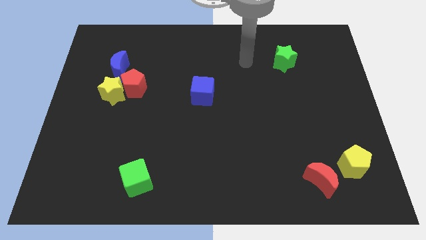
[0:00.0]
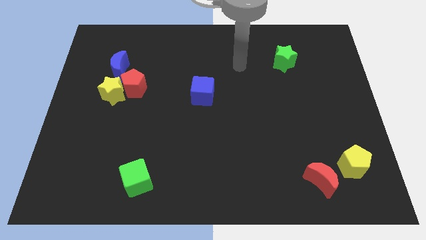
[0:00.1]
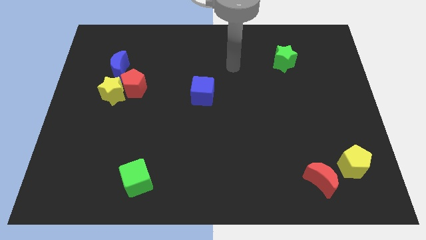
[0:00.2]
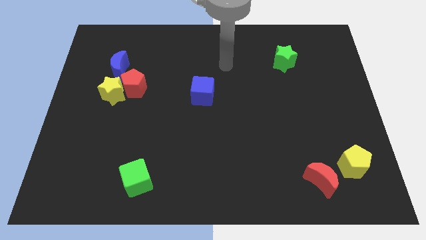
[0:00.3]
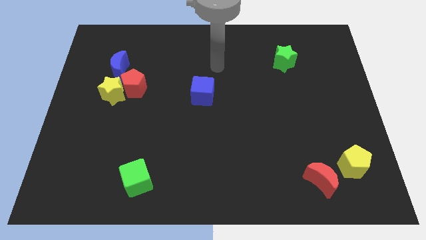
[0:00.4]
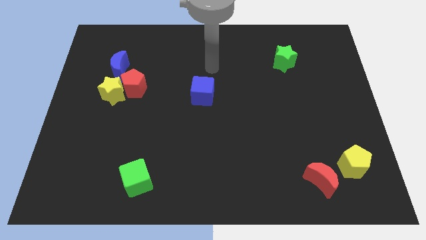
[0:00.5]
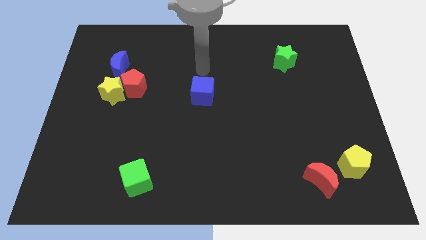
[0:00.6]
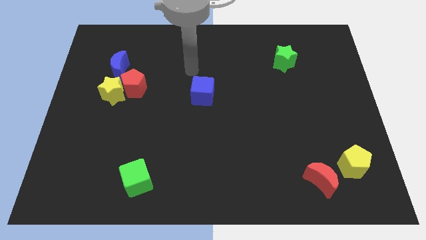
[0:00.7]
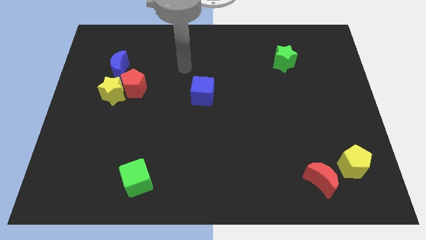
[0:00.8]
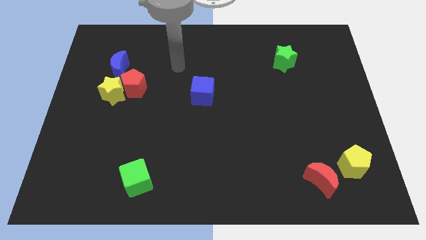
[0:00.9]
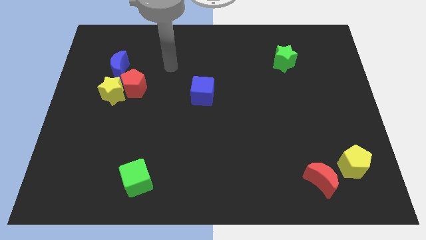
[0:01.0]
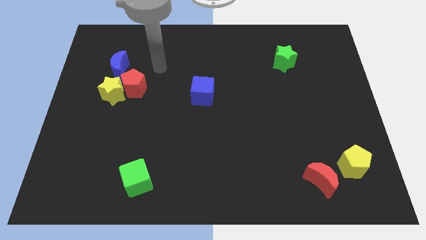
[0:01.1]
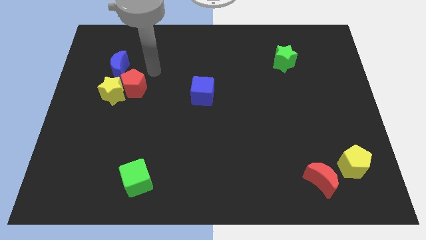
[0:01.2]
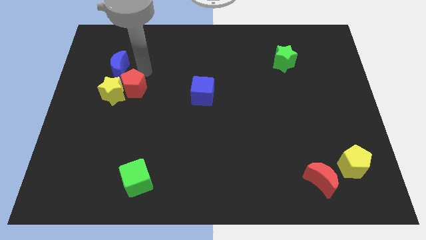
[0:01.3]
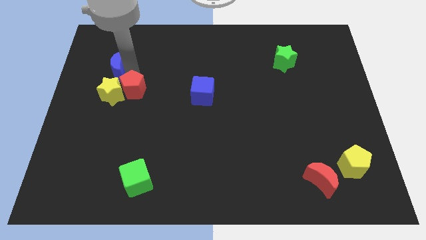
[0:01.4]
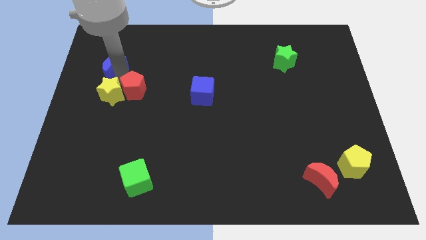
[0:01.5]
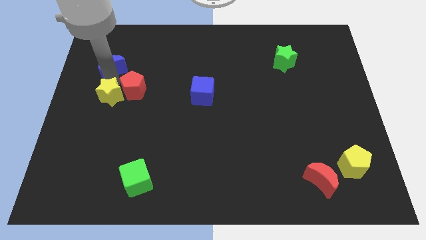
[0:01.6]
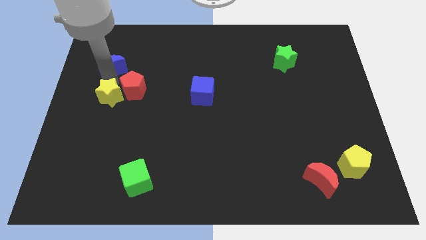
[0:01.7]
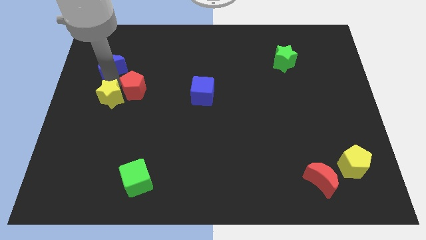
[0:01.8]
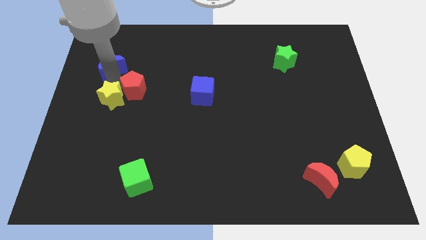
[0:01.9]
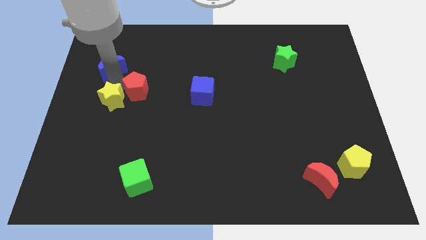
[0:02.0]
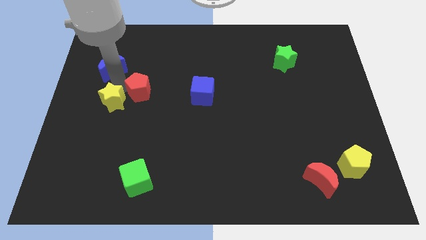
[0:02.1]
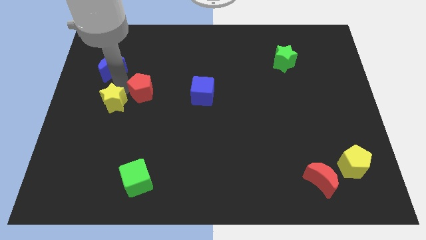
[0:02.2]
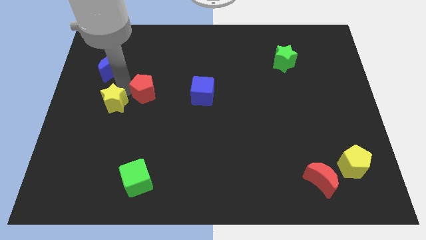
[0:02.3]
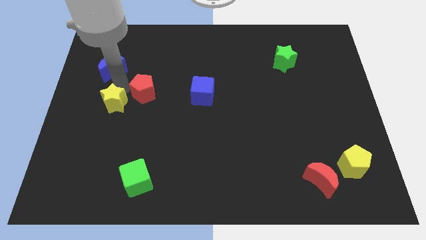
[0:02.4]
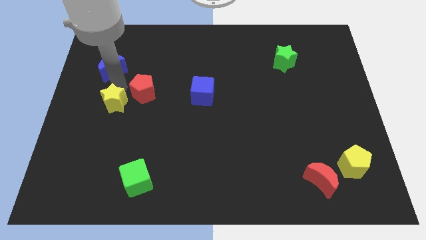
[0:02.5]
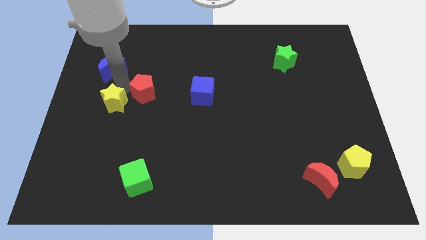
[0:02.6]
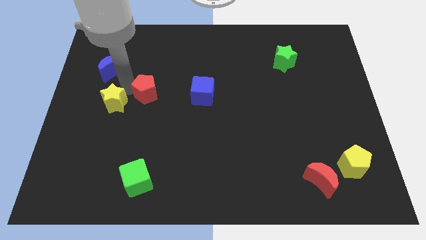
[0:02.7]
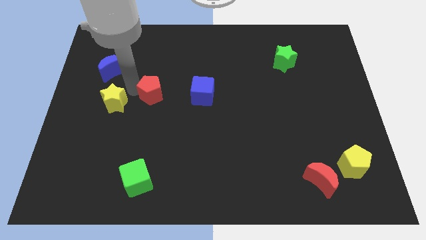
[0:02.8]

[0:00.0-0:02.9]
move the red pentagon away from the yellow star and blue moon

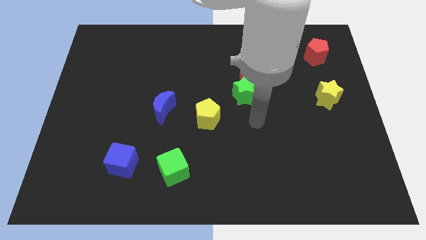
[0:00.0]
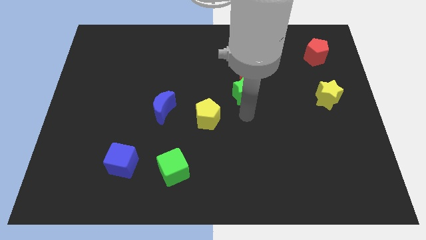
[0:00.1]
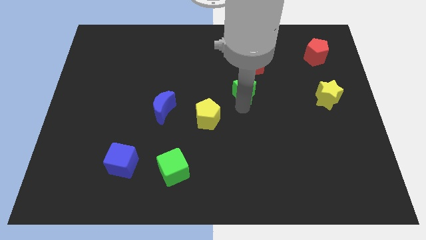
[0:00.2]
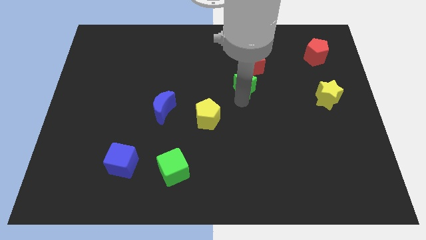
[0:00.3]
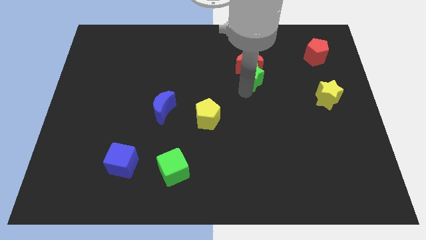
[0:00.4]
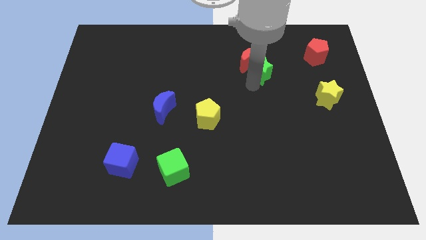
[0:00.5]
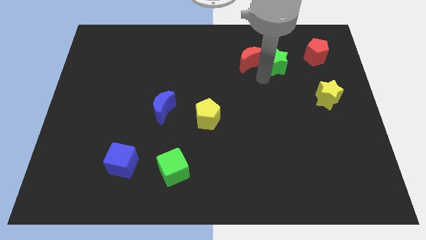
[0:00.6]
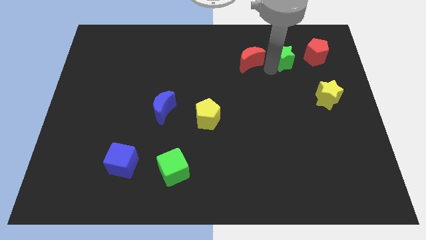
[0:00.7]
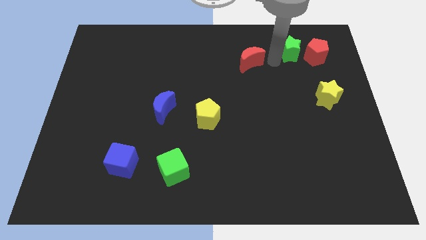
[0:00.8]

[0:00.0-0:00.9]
separate the red moon from the green star

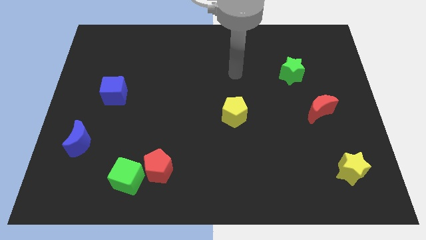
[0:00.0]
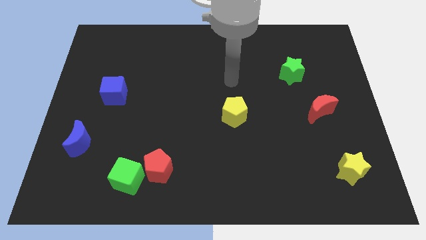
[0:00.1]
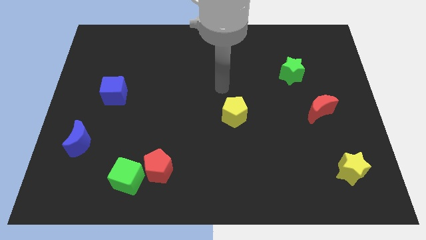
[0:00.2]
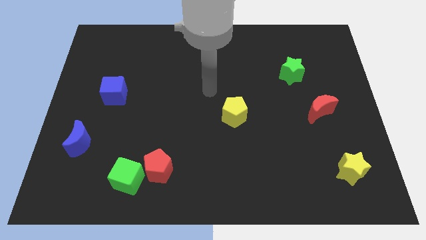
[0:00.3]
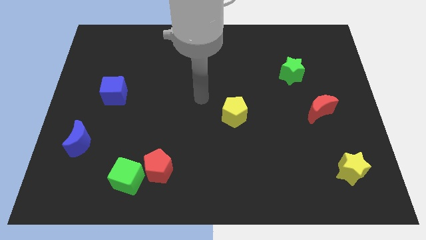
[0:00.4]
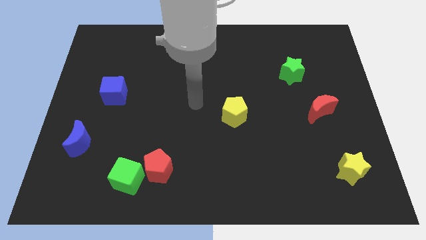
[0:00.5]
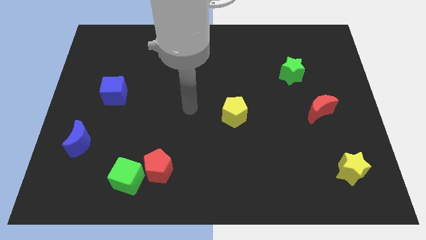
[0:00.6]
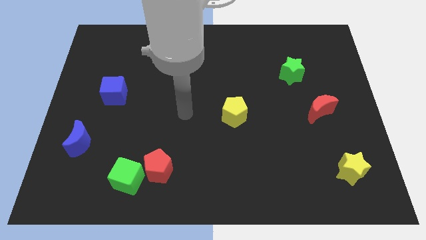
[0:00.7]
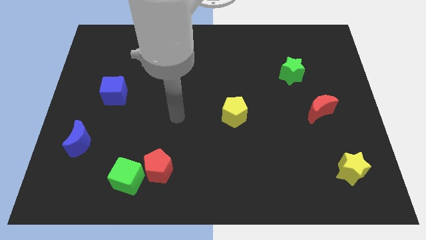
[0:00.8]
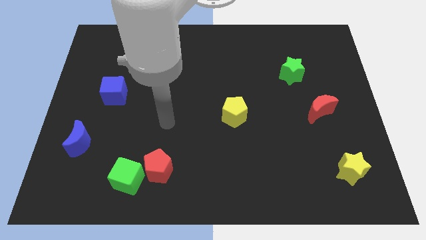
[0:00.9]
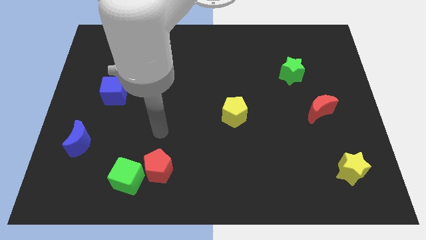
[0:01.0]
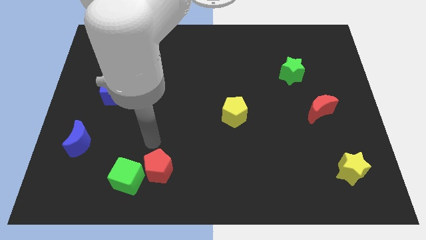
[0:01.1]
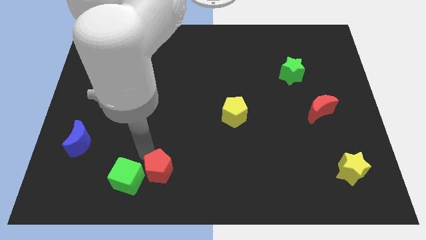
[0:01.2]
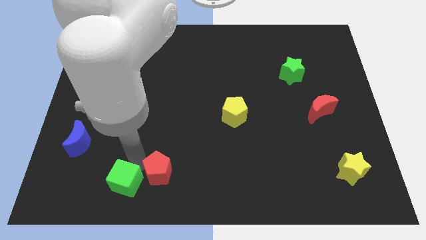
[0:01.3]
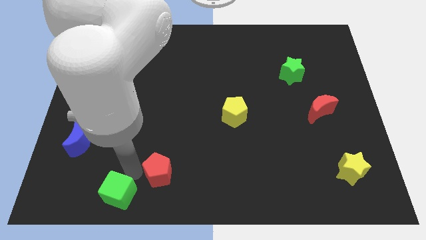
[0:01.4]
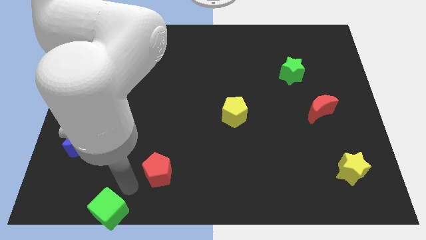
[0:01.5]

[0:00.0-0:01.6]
move the red pentagon away from the green cube

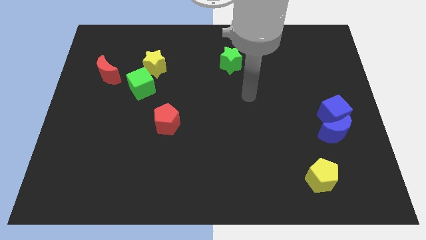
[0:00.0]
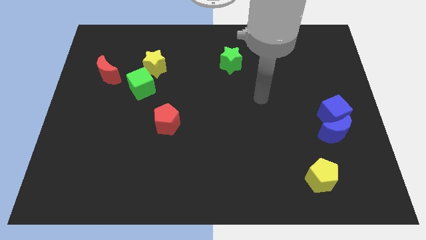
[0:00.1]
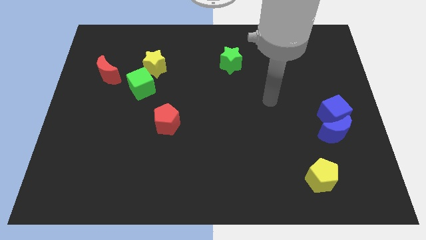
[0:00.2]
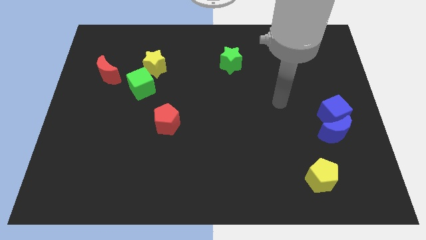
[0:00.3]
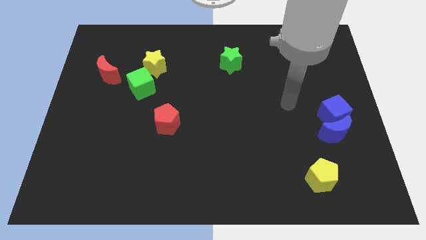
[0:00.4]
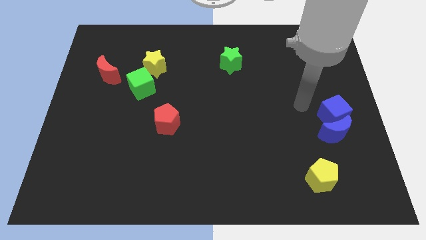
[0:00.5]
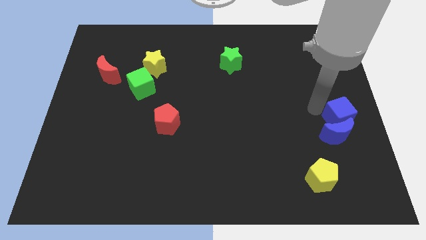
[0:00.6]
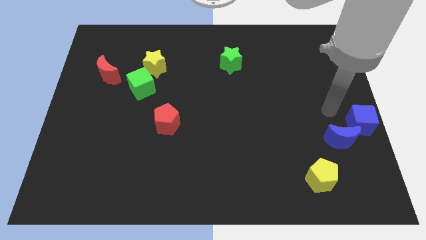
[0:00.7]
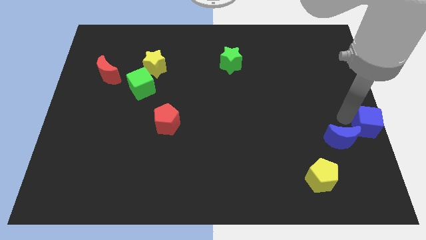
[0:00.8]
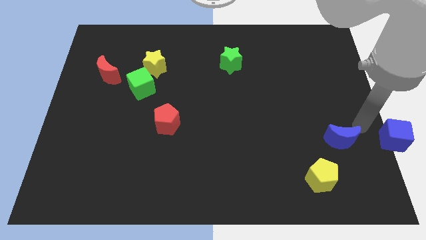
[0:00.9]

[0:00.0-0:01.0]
move the blue moon away from the blue cube

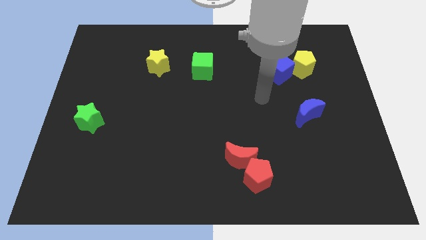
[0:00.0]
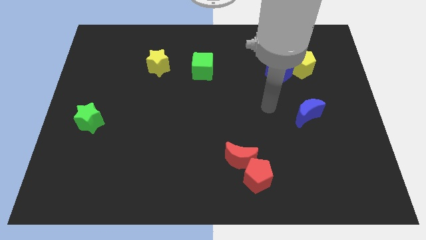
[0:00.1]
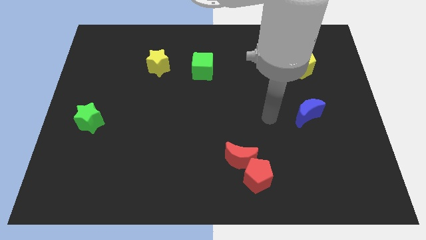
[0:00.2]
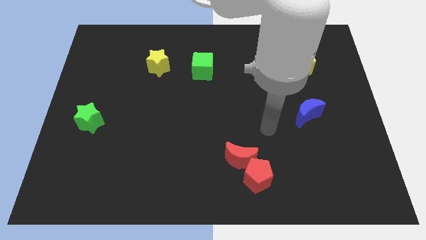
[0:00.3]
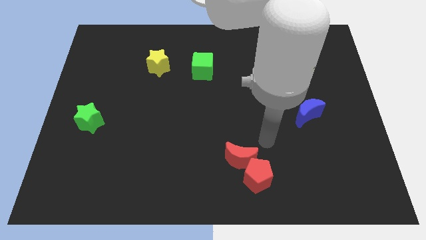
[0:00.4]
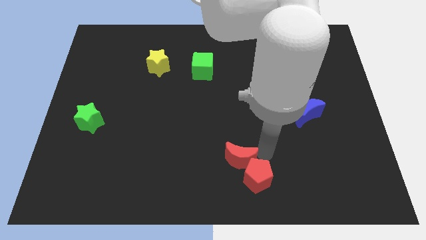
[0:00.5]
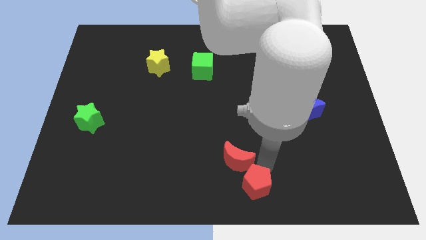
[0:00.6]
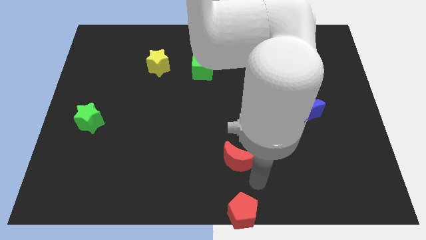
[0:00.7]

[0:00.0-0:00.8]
pull the red moon apart from the red pentagon

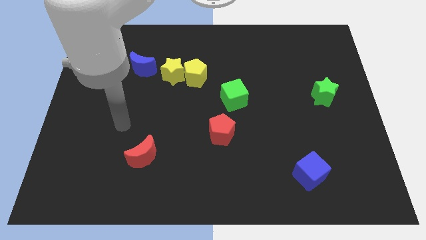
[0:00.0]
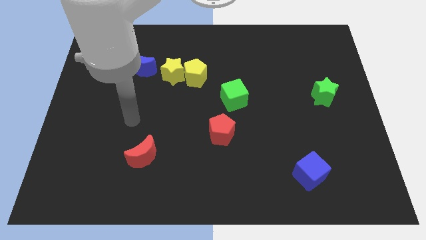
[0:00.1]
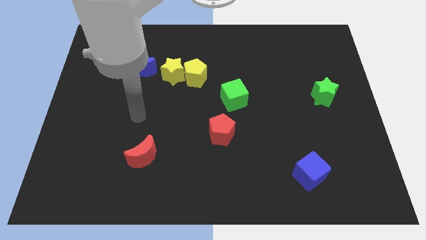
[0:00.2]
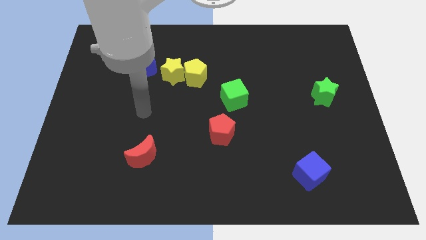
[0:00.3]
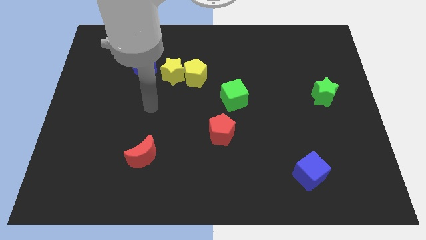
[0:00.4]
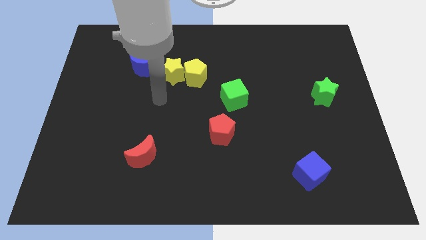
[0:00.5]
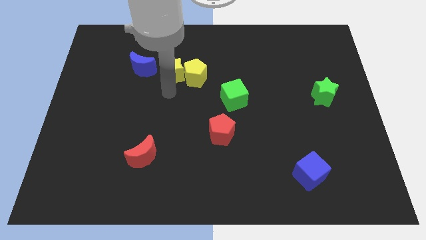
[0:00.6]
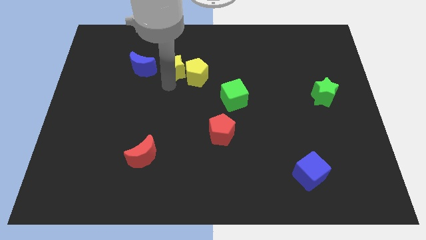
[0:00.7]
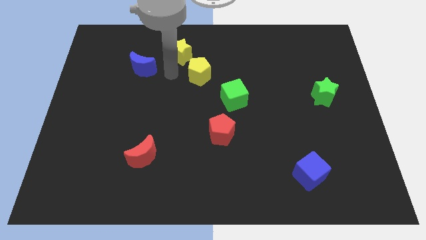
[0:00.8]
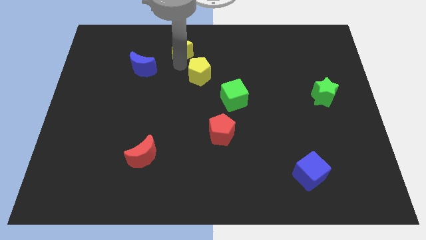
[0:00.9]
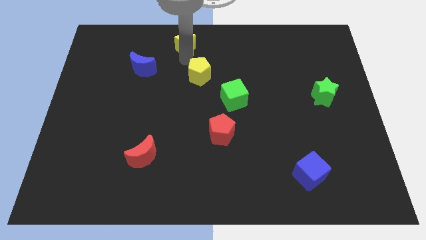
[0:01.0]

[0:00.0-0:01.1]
move the yellow pentagon away from the yellow star

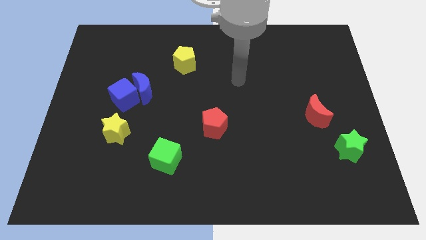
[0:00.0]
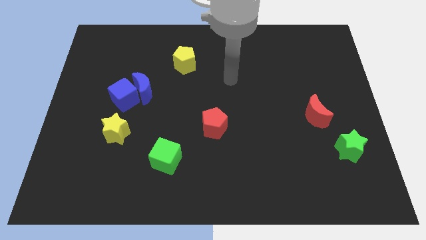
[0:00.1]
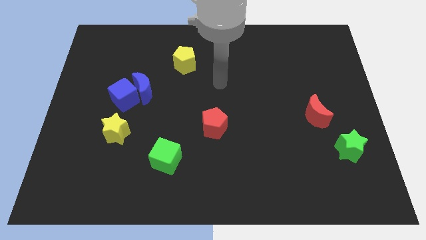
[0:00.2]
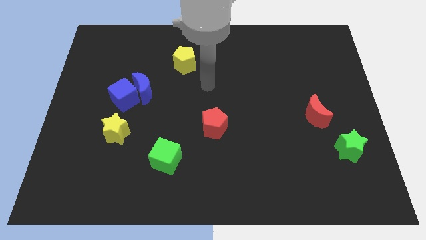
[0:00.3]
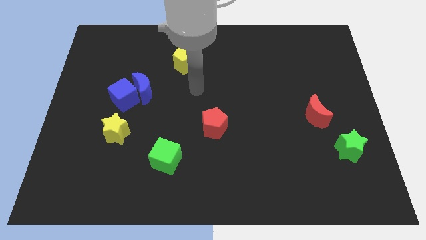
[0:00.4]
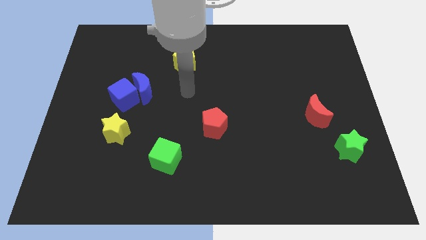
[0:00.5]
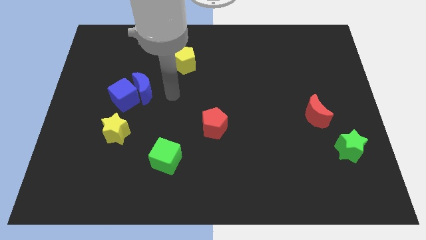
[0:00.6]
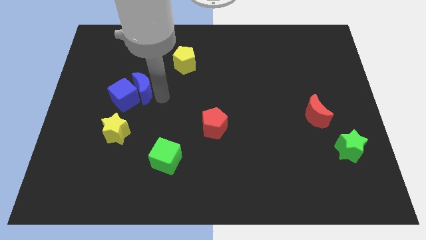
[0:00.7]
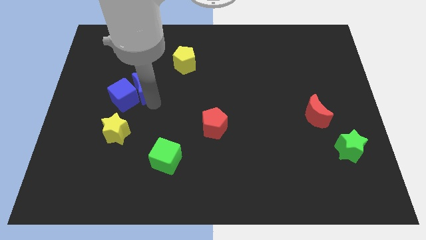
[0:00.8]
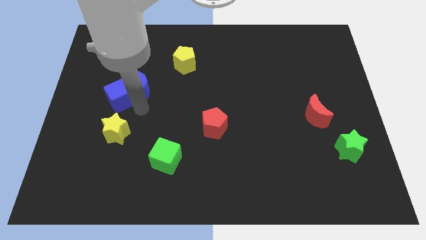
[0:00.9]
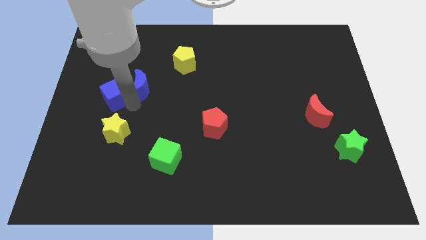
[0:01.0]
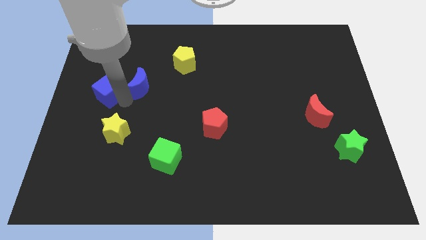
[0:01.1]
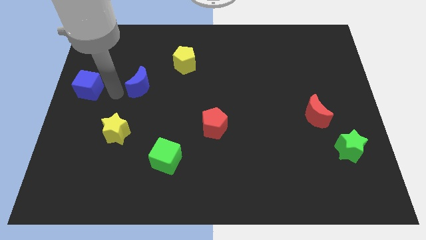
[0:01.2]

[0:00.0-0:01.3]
separate the blue moon from the blue cube
